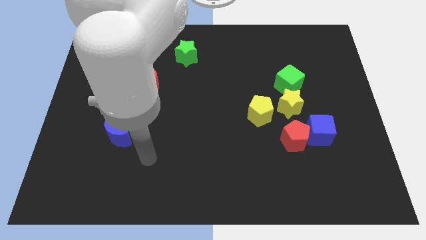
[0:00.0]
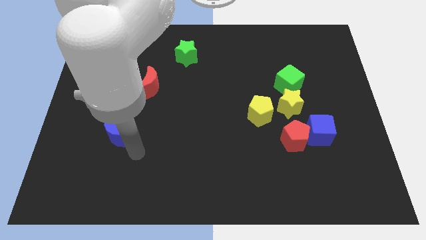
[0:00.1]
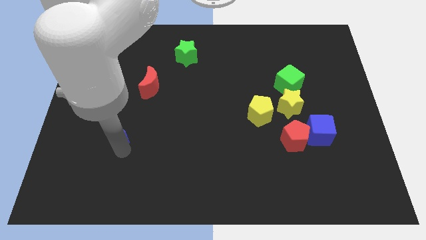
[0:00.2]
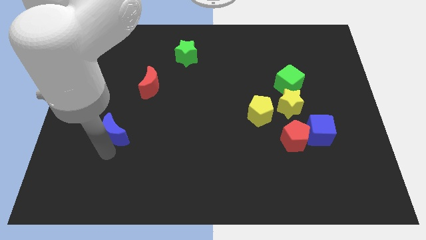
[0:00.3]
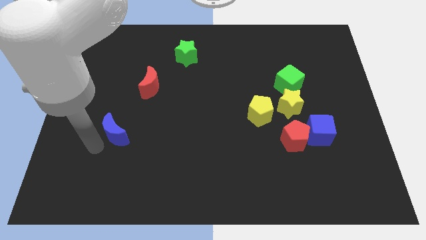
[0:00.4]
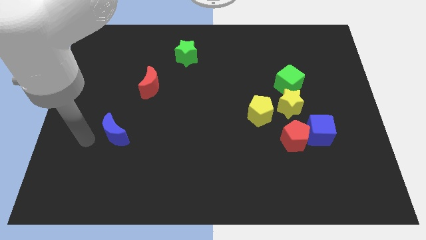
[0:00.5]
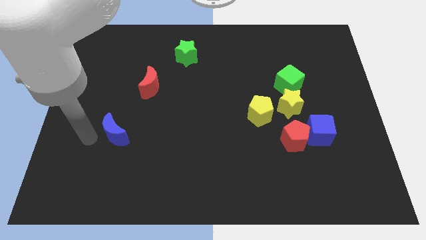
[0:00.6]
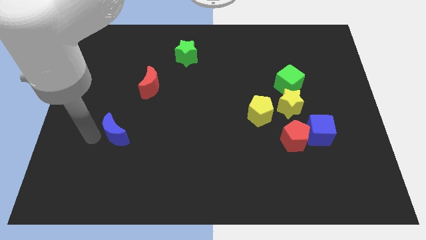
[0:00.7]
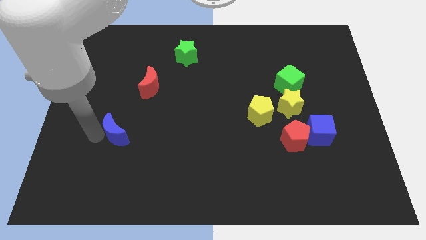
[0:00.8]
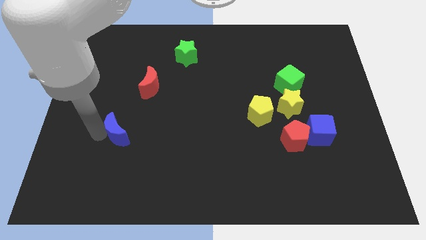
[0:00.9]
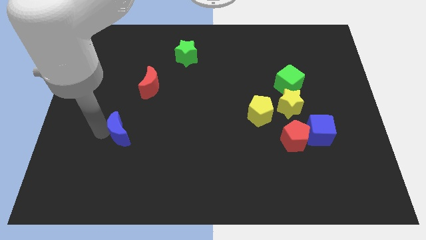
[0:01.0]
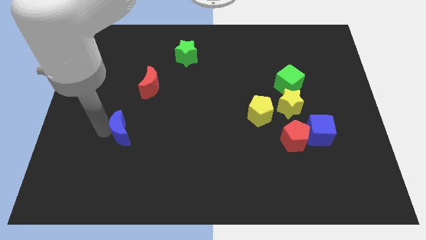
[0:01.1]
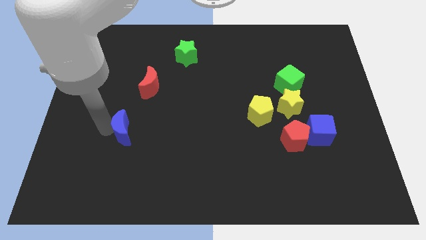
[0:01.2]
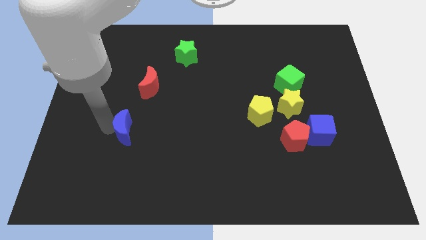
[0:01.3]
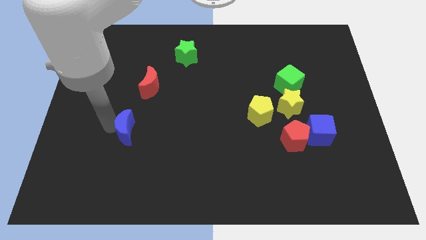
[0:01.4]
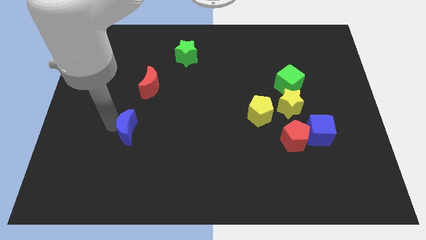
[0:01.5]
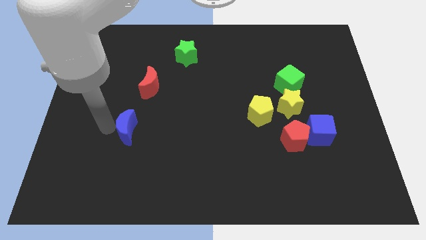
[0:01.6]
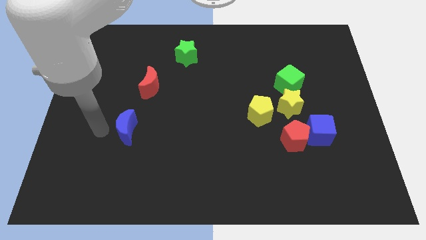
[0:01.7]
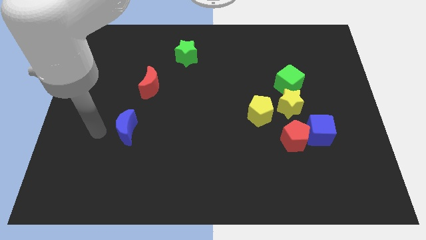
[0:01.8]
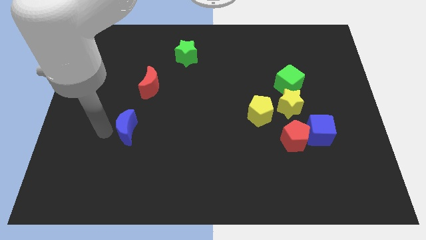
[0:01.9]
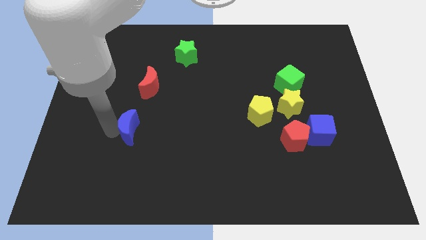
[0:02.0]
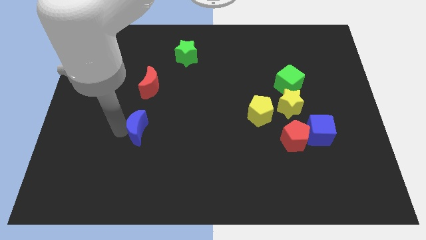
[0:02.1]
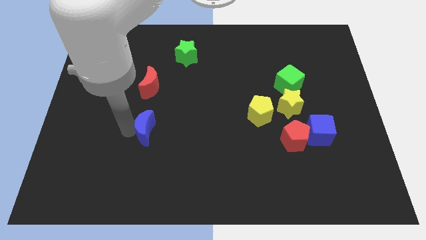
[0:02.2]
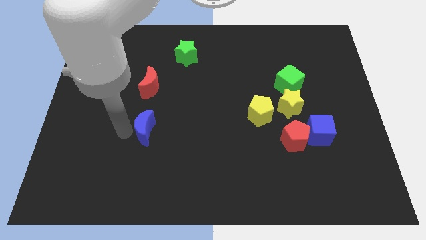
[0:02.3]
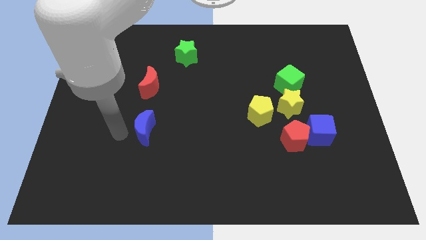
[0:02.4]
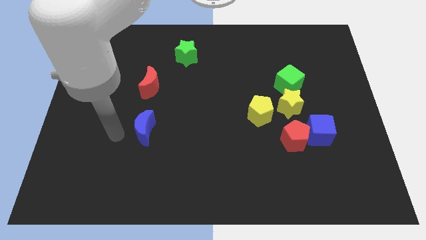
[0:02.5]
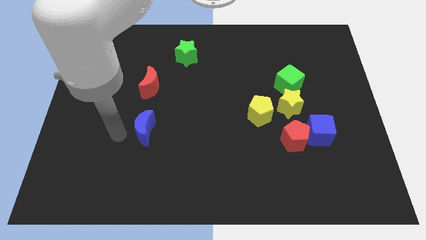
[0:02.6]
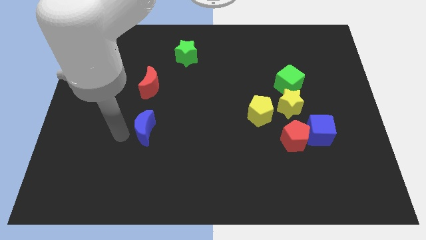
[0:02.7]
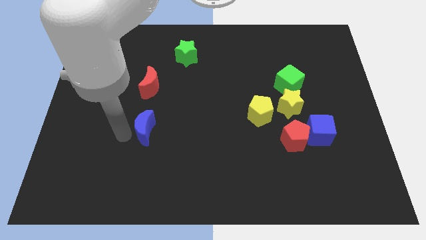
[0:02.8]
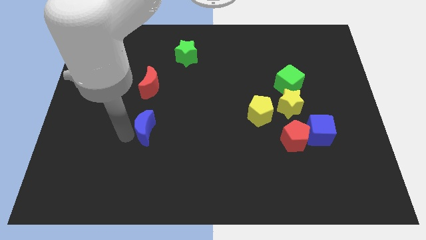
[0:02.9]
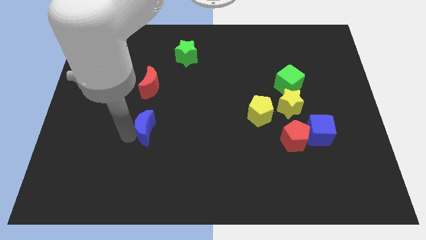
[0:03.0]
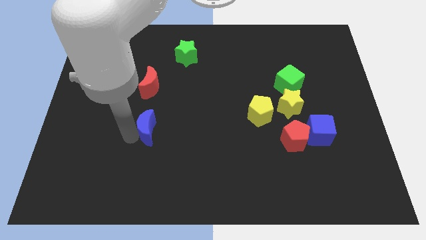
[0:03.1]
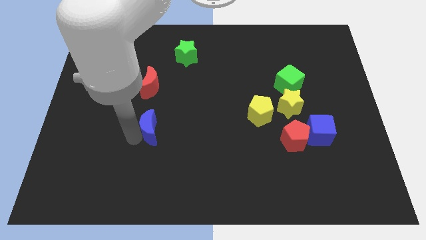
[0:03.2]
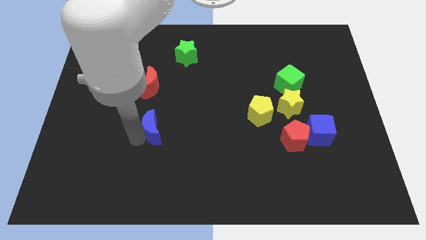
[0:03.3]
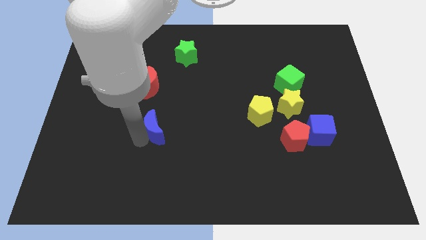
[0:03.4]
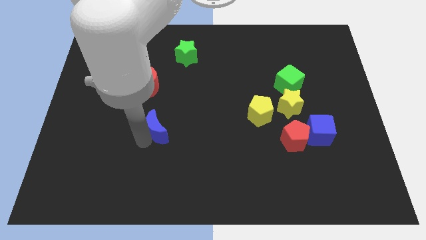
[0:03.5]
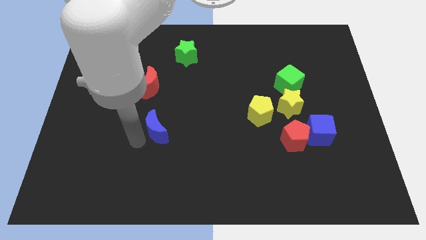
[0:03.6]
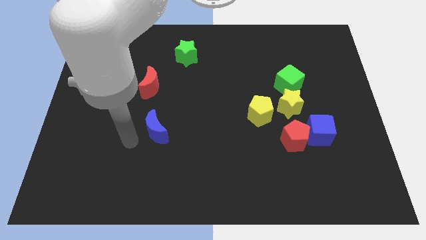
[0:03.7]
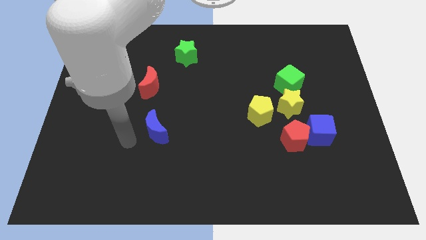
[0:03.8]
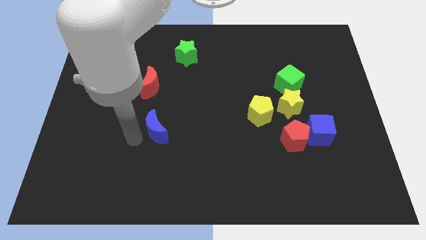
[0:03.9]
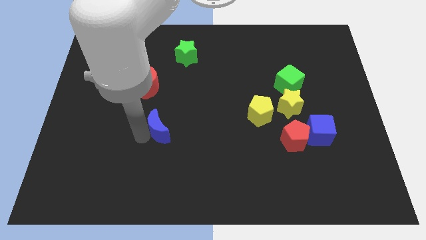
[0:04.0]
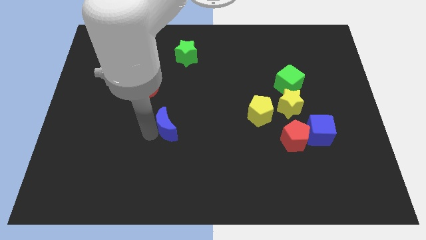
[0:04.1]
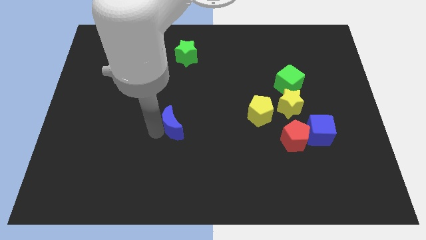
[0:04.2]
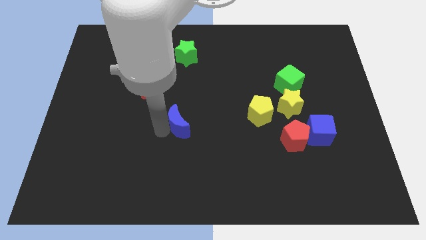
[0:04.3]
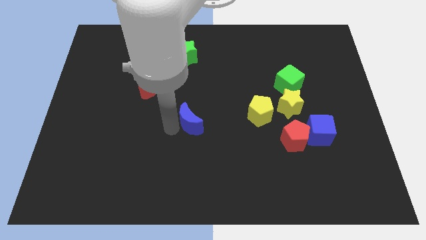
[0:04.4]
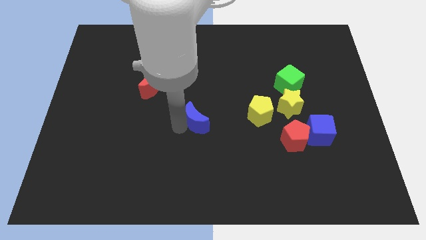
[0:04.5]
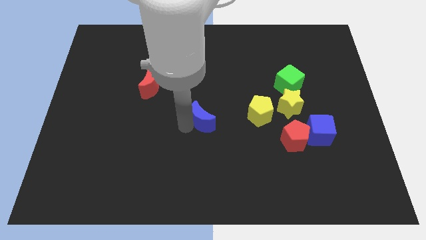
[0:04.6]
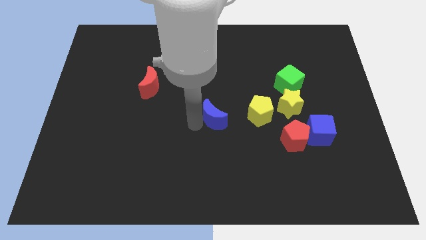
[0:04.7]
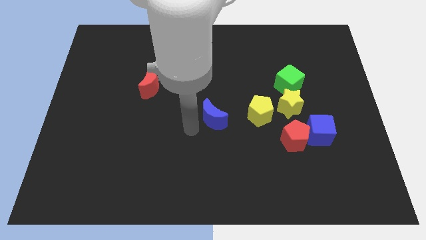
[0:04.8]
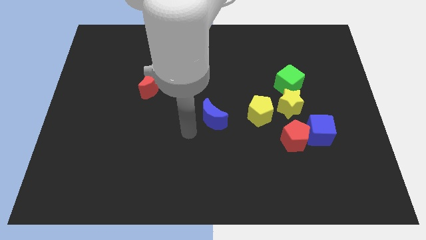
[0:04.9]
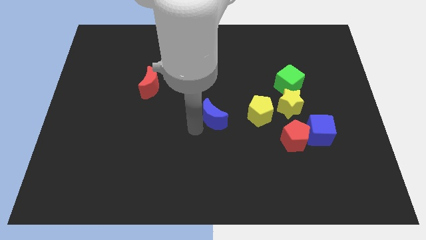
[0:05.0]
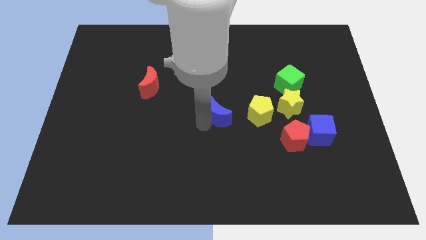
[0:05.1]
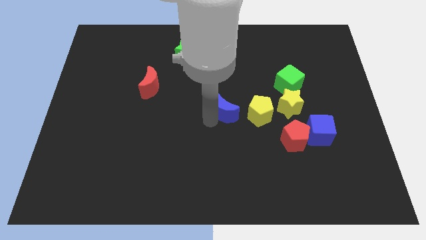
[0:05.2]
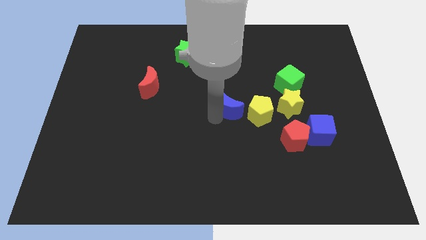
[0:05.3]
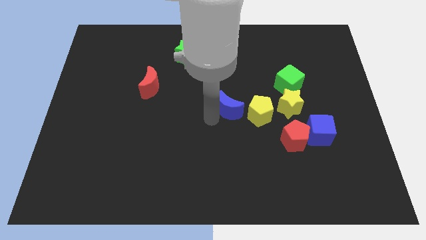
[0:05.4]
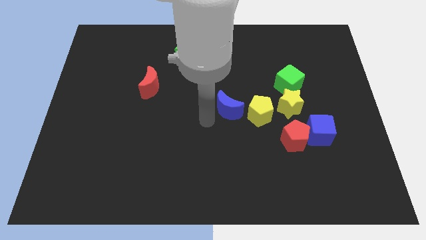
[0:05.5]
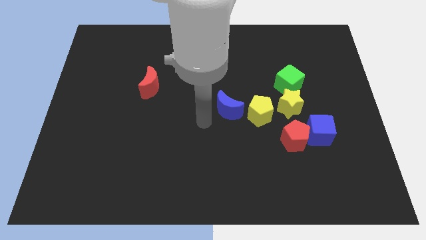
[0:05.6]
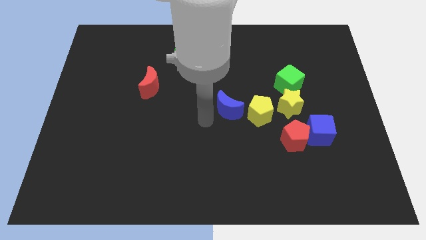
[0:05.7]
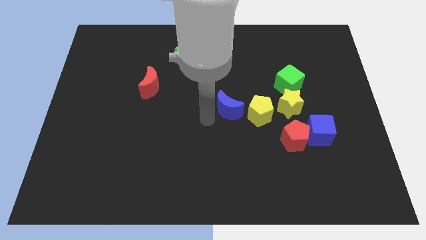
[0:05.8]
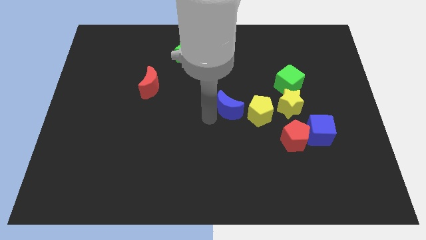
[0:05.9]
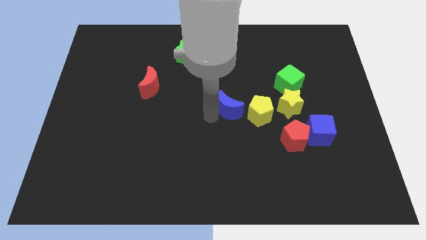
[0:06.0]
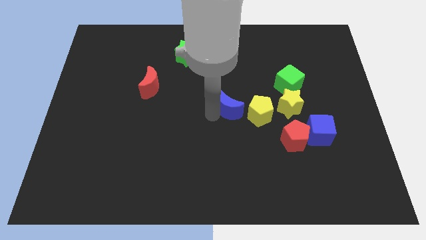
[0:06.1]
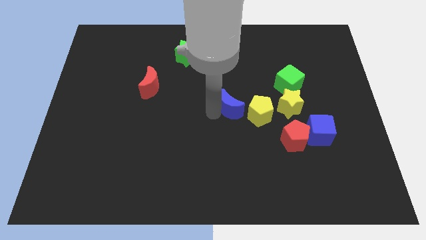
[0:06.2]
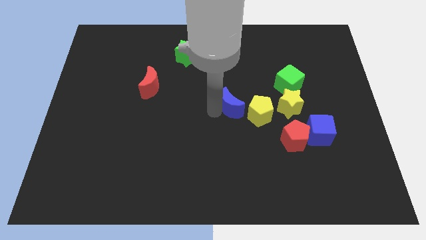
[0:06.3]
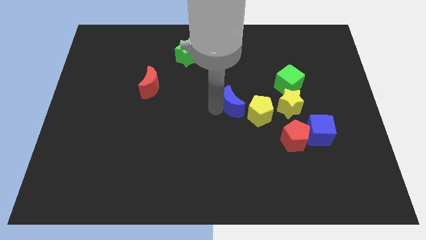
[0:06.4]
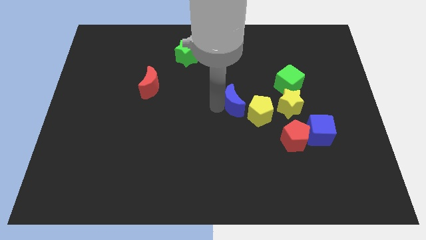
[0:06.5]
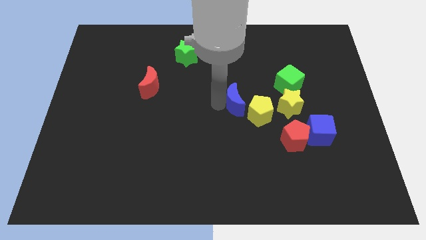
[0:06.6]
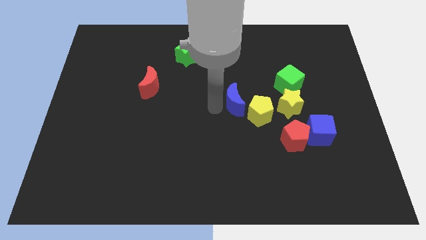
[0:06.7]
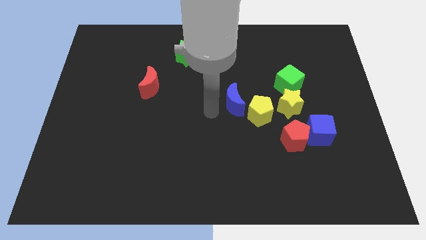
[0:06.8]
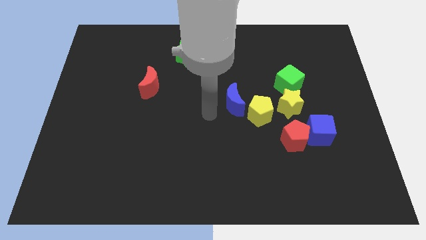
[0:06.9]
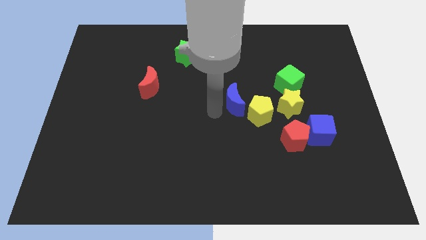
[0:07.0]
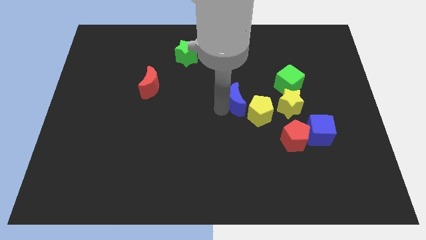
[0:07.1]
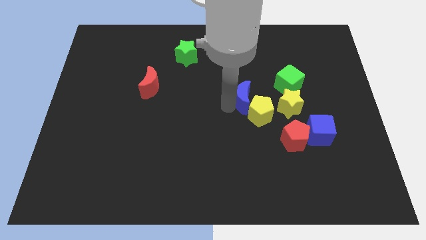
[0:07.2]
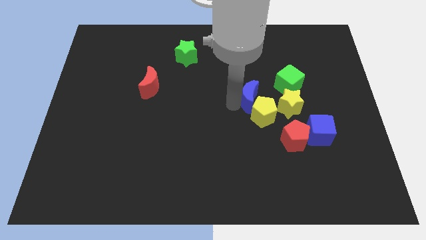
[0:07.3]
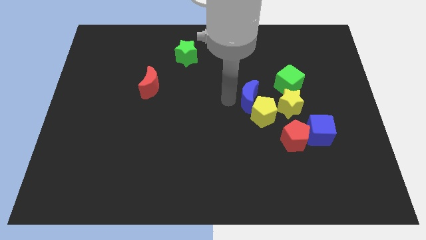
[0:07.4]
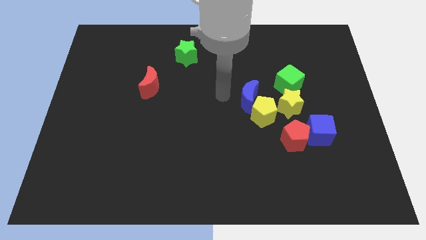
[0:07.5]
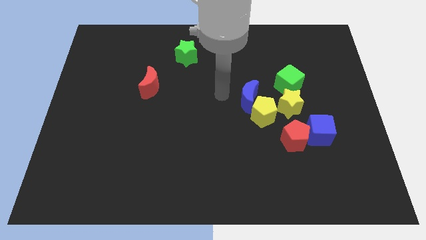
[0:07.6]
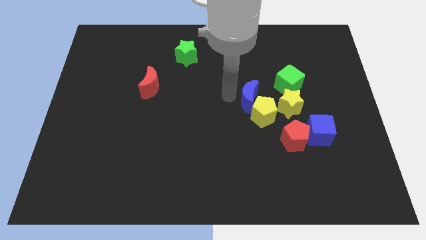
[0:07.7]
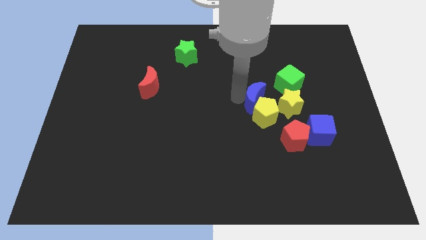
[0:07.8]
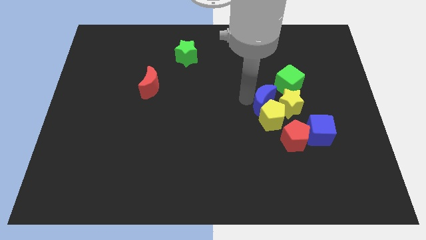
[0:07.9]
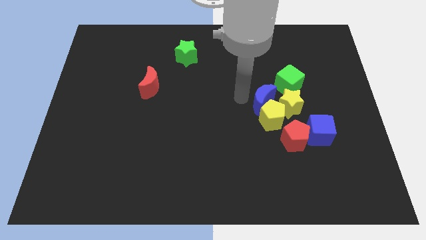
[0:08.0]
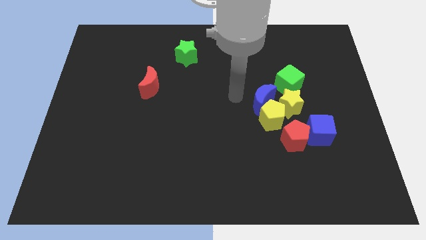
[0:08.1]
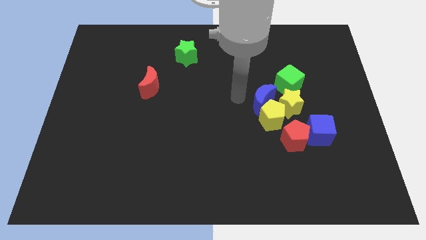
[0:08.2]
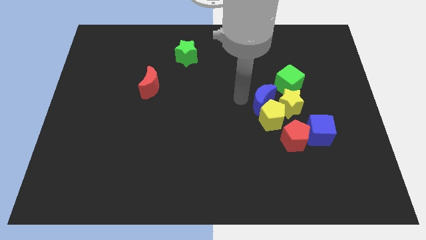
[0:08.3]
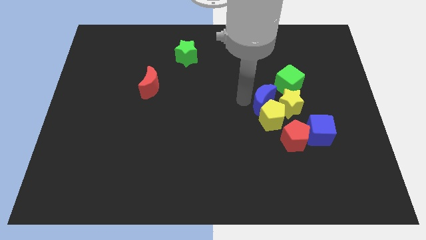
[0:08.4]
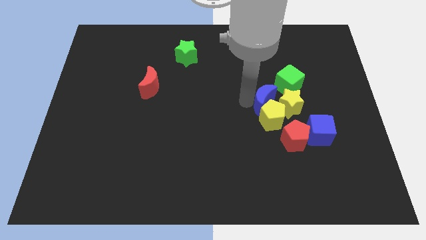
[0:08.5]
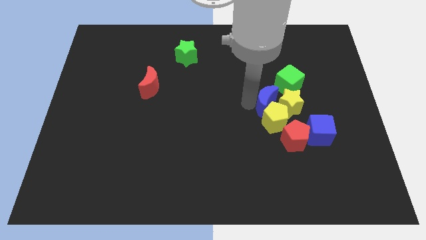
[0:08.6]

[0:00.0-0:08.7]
move the blue moon towards the yellow star
